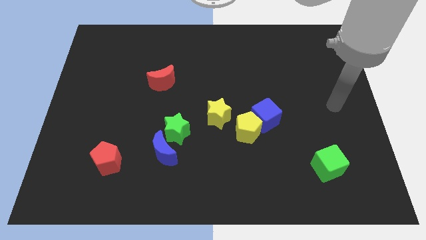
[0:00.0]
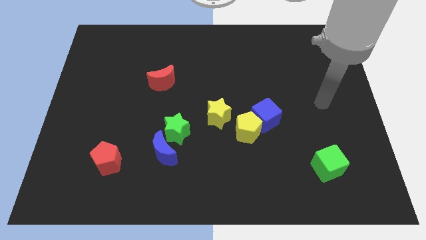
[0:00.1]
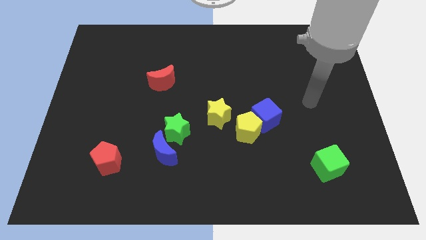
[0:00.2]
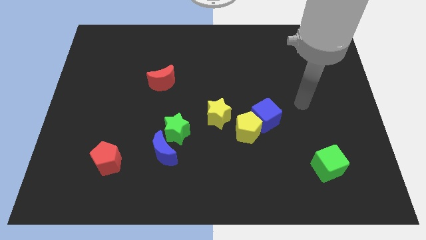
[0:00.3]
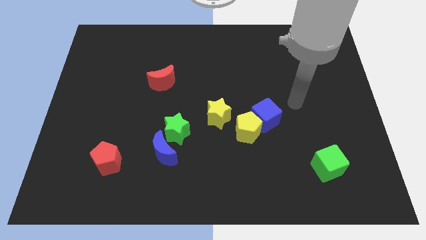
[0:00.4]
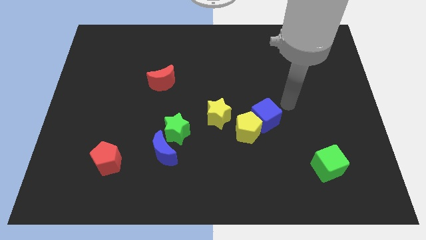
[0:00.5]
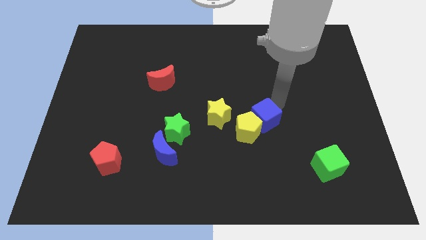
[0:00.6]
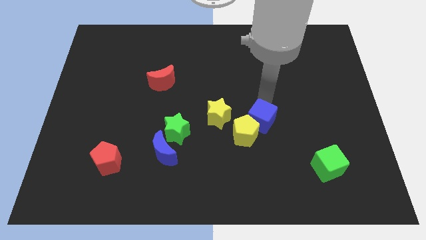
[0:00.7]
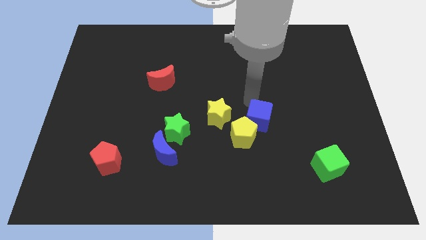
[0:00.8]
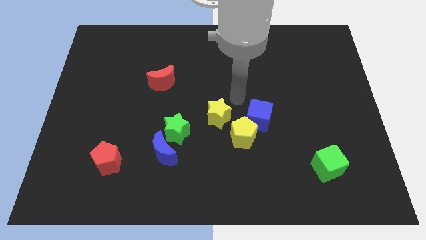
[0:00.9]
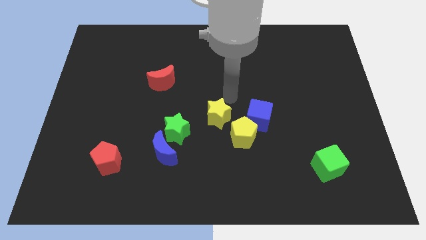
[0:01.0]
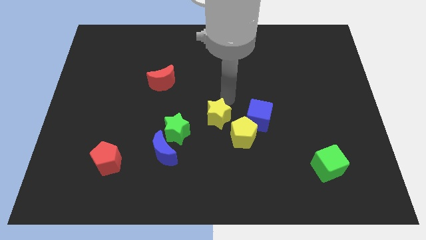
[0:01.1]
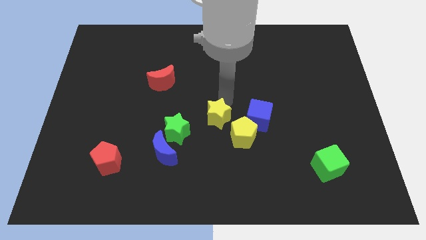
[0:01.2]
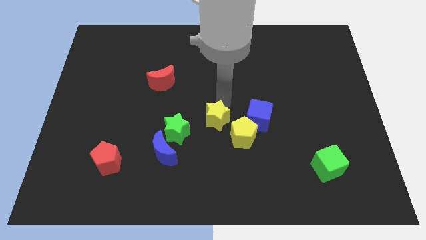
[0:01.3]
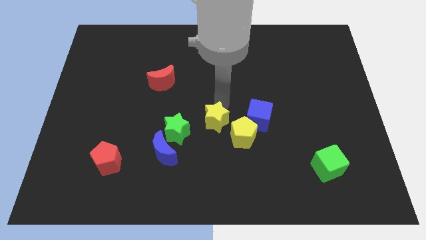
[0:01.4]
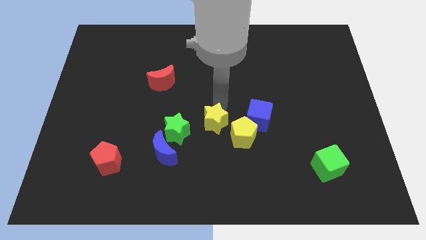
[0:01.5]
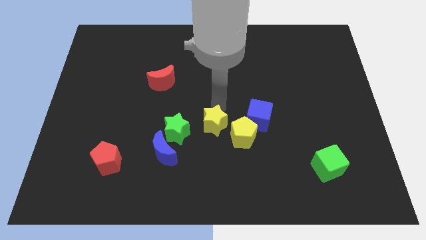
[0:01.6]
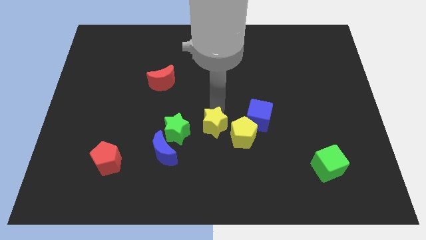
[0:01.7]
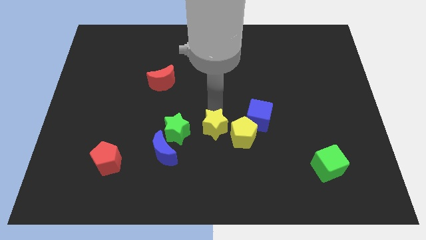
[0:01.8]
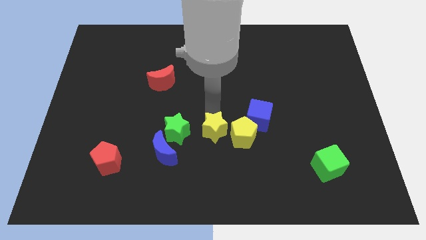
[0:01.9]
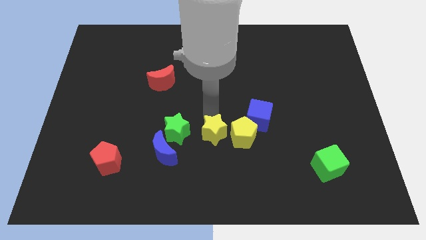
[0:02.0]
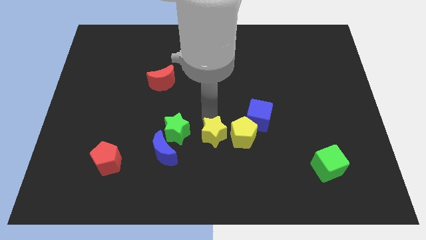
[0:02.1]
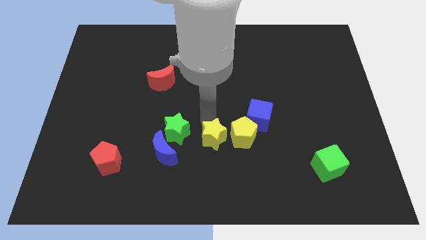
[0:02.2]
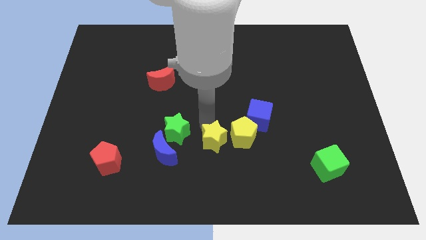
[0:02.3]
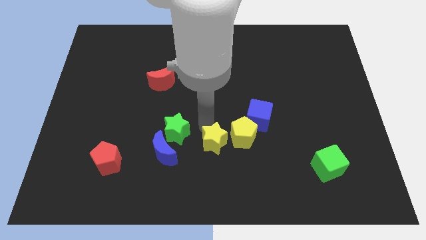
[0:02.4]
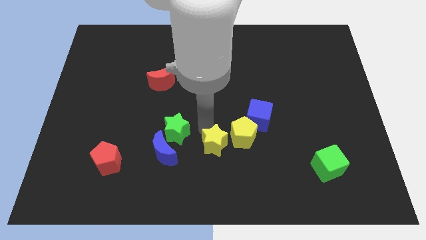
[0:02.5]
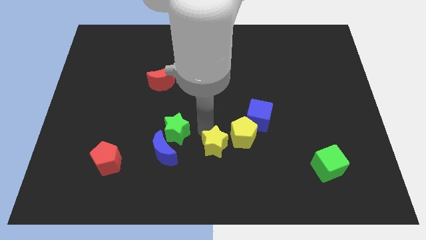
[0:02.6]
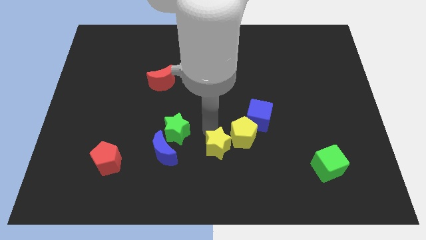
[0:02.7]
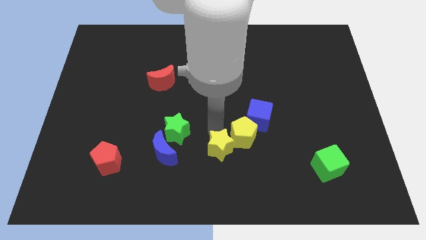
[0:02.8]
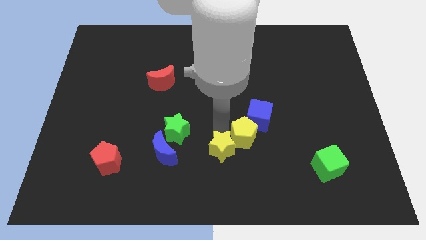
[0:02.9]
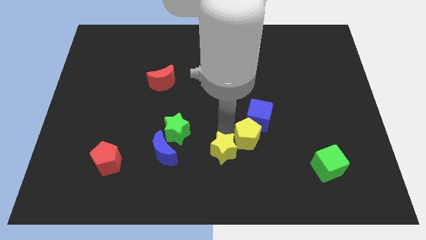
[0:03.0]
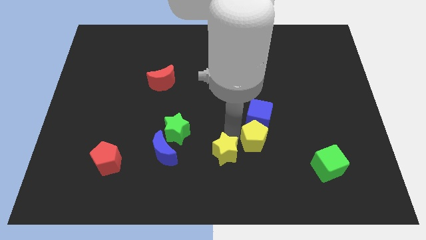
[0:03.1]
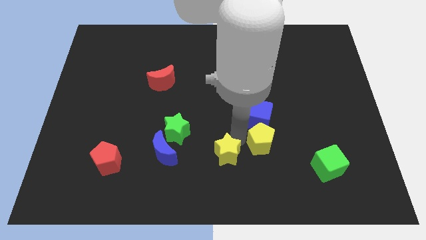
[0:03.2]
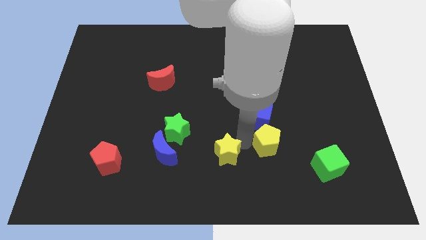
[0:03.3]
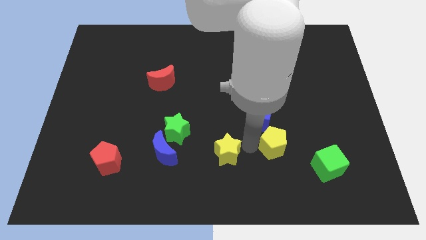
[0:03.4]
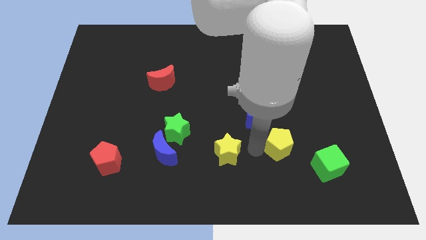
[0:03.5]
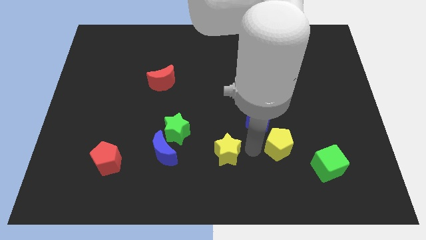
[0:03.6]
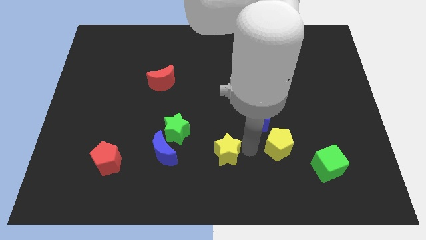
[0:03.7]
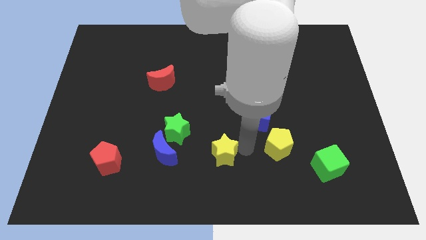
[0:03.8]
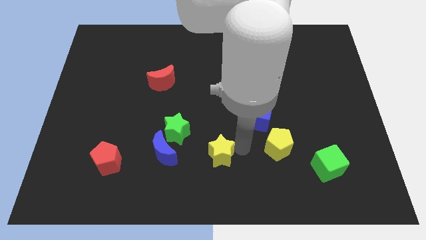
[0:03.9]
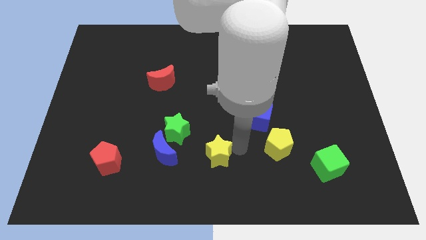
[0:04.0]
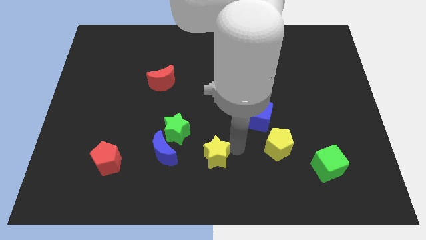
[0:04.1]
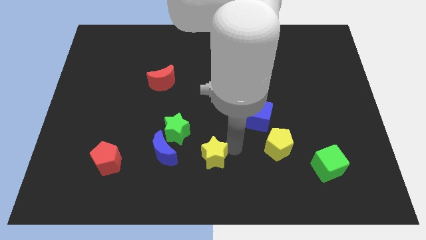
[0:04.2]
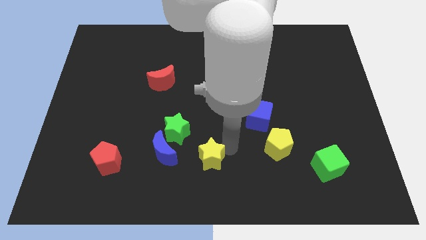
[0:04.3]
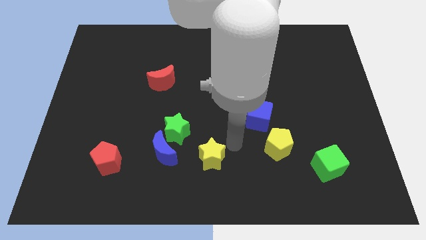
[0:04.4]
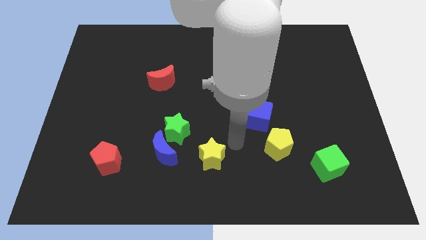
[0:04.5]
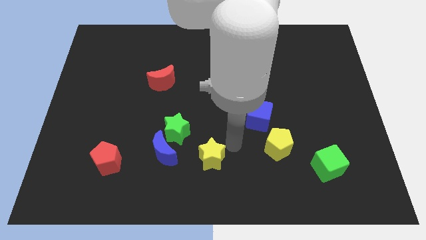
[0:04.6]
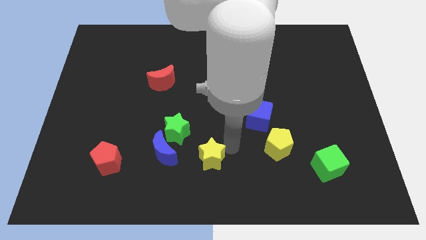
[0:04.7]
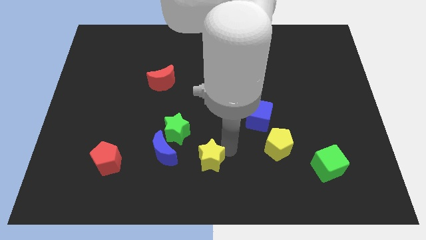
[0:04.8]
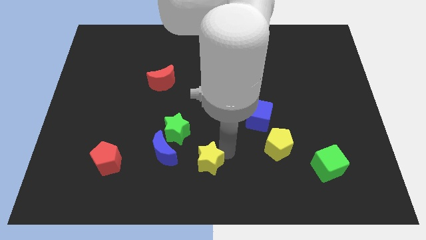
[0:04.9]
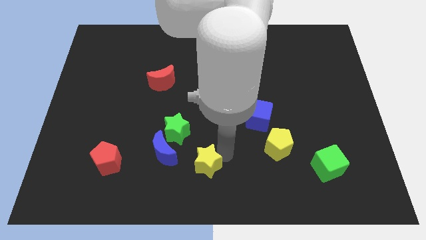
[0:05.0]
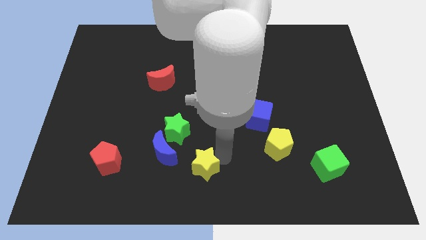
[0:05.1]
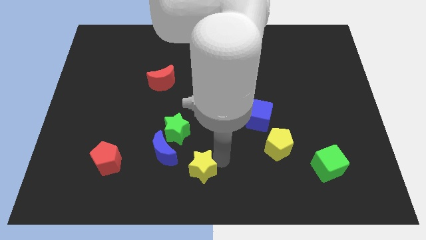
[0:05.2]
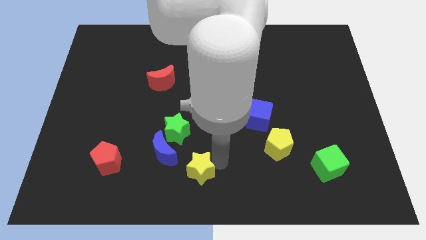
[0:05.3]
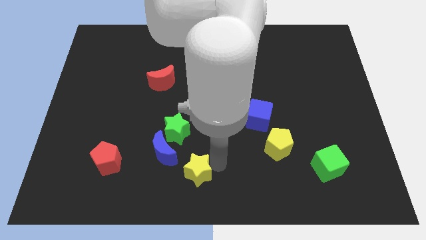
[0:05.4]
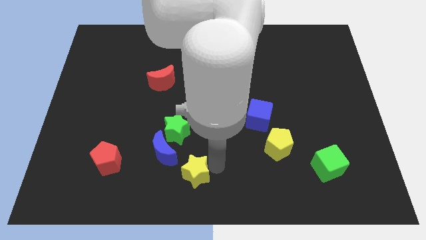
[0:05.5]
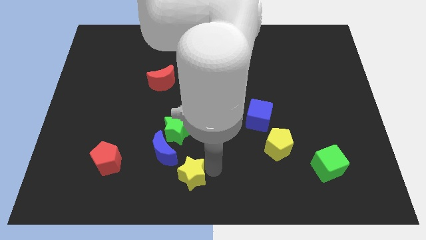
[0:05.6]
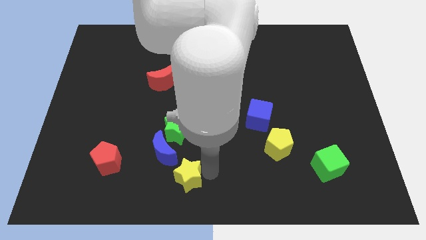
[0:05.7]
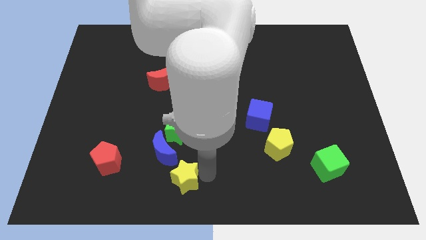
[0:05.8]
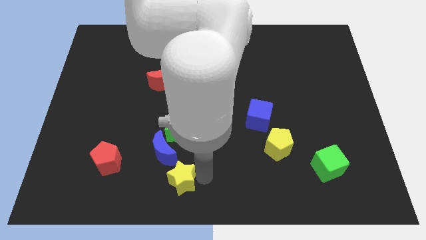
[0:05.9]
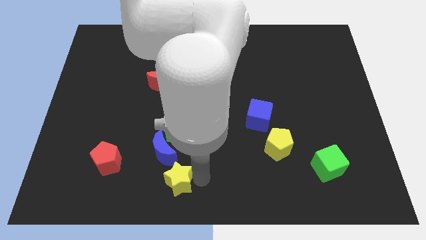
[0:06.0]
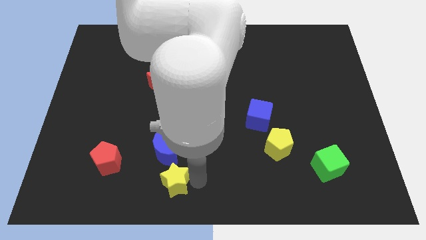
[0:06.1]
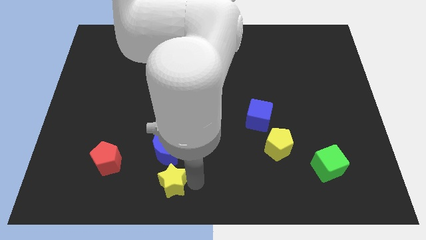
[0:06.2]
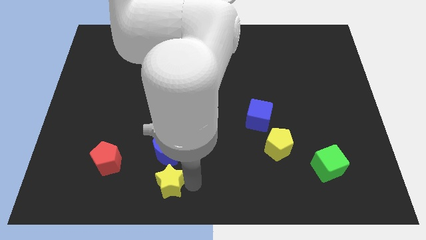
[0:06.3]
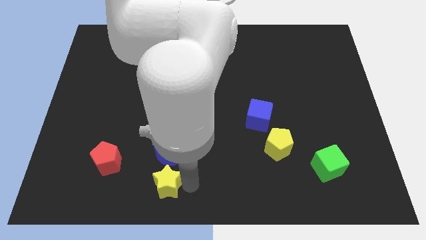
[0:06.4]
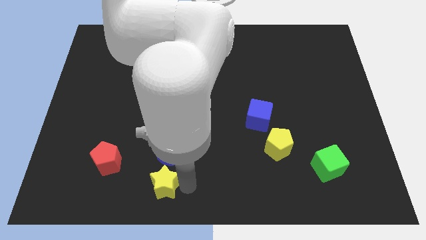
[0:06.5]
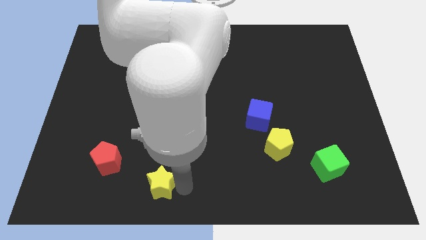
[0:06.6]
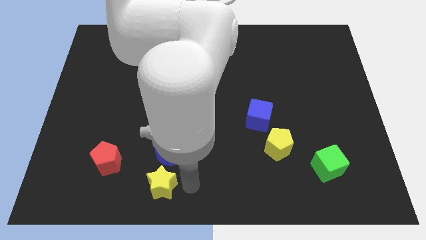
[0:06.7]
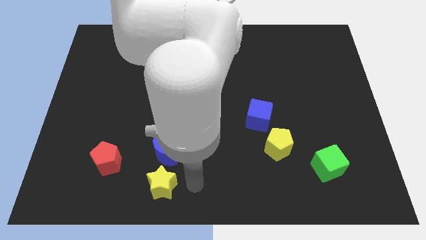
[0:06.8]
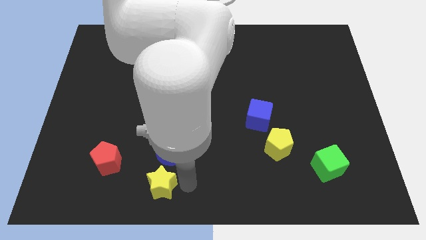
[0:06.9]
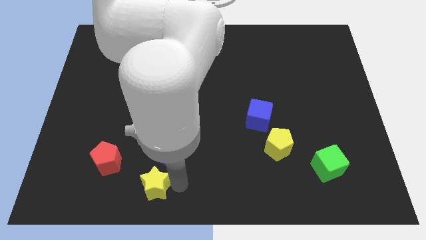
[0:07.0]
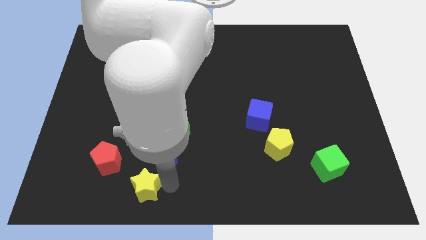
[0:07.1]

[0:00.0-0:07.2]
put the yellow star to the bottom right side of the red pentagon

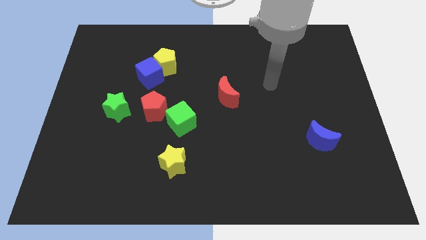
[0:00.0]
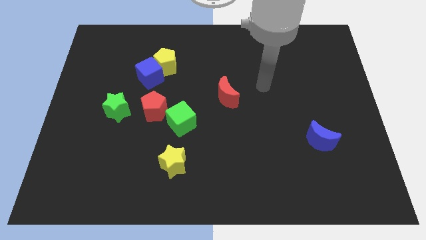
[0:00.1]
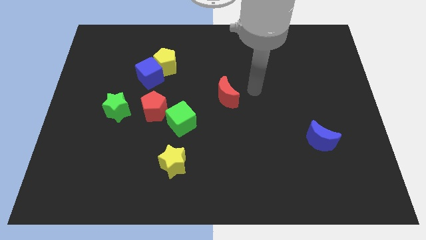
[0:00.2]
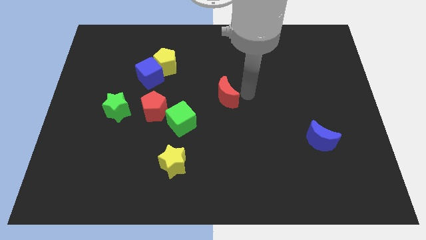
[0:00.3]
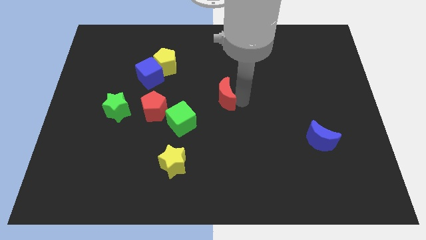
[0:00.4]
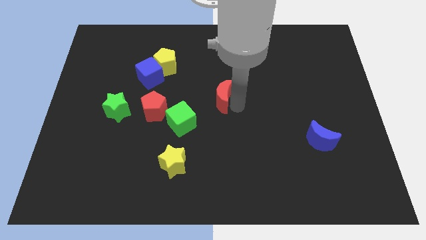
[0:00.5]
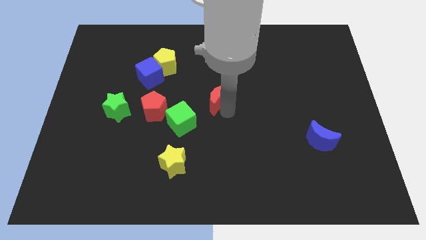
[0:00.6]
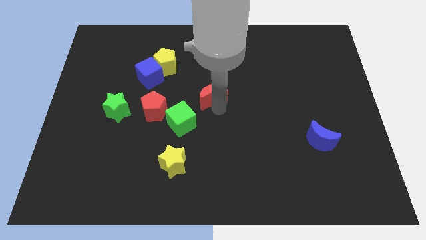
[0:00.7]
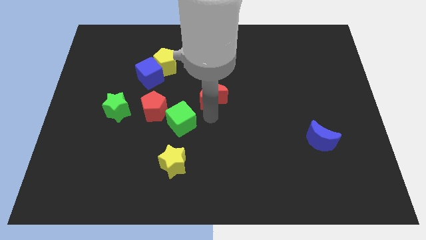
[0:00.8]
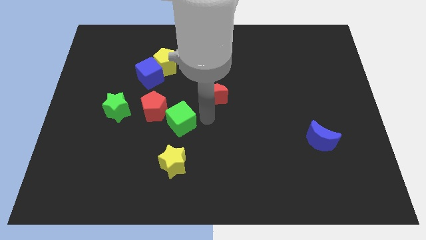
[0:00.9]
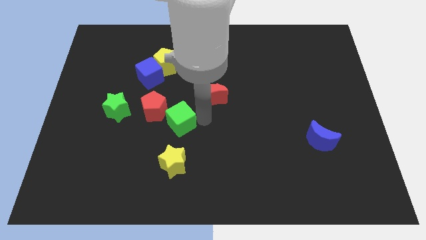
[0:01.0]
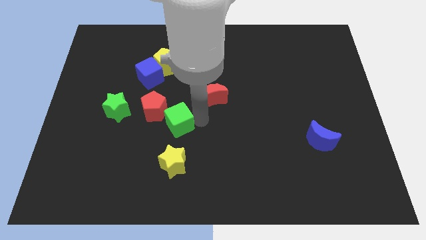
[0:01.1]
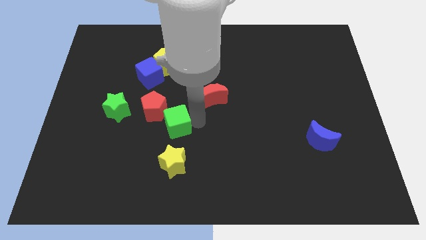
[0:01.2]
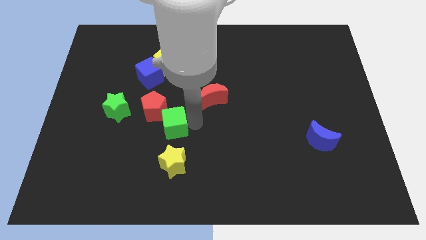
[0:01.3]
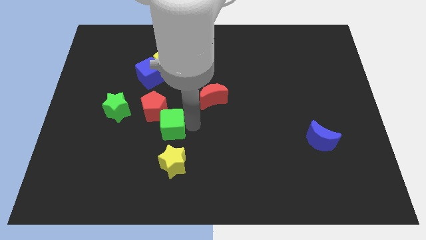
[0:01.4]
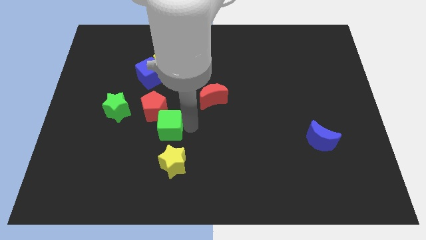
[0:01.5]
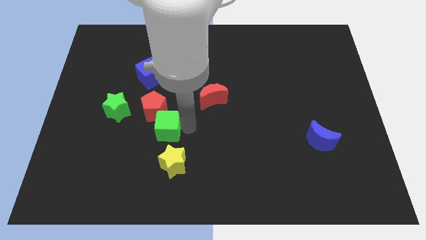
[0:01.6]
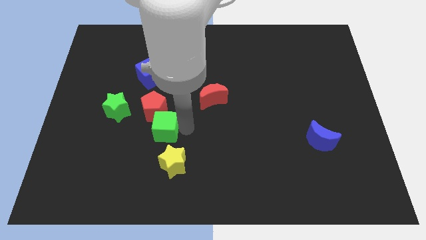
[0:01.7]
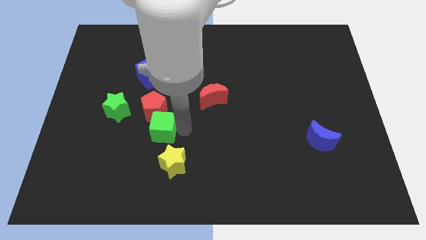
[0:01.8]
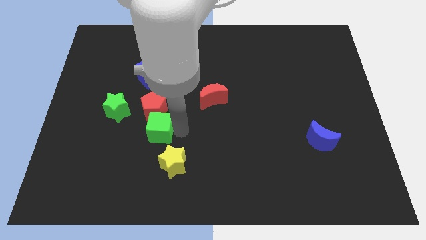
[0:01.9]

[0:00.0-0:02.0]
slide the green cube to the bottom right side of the green star
